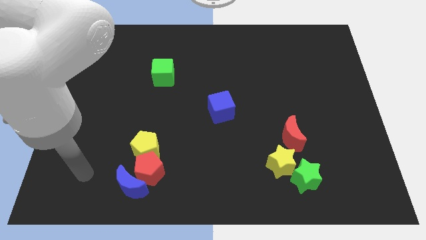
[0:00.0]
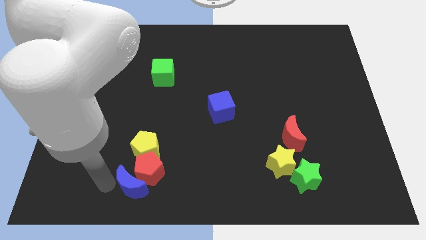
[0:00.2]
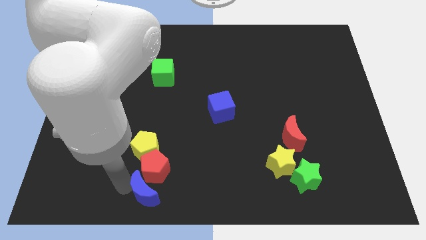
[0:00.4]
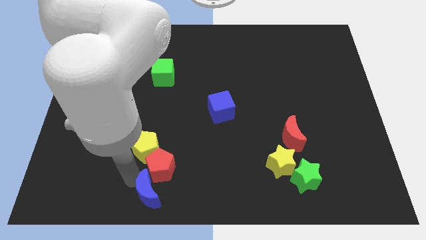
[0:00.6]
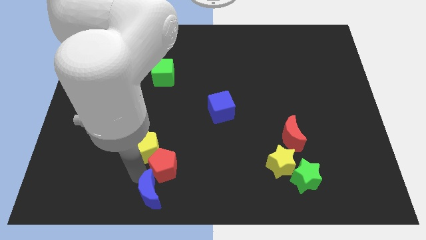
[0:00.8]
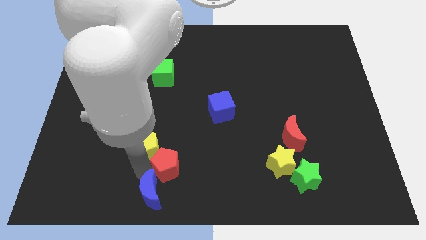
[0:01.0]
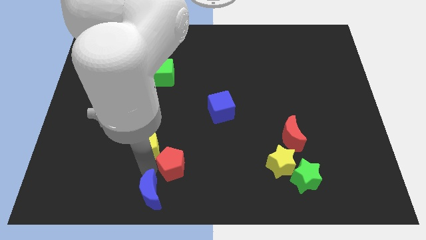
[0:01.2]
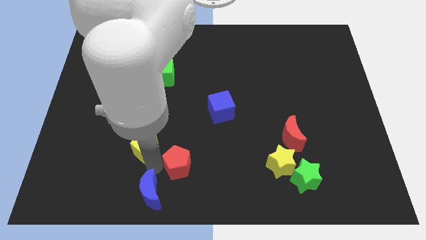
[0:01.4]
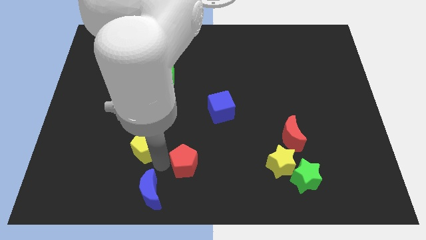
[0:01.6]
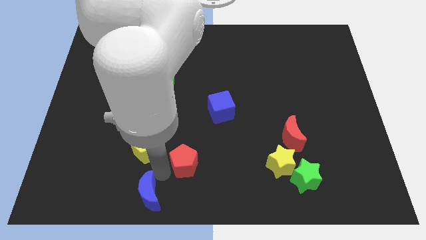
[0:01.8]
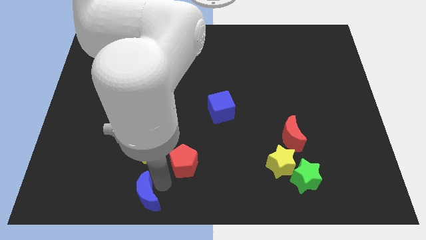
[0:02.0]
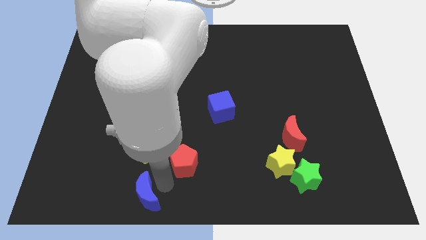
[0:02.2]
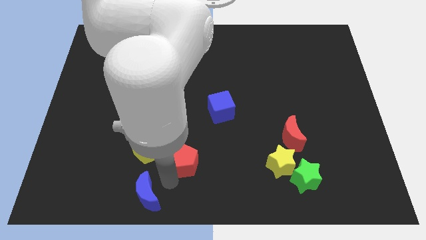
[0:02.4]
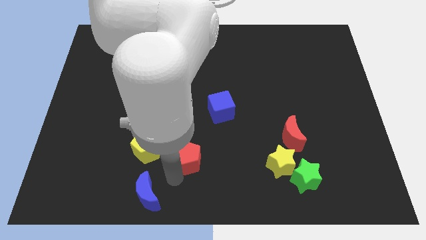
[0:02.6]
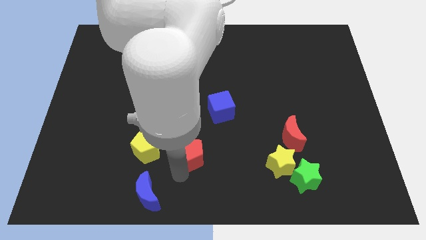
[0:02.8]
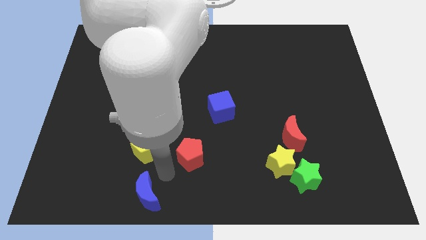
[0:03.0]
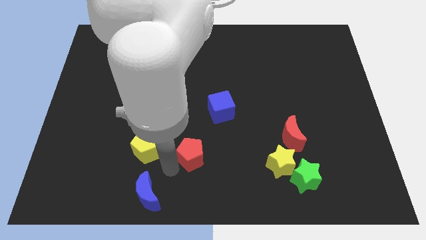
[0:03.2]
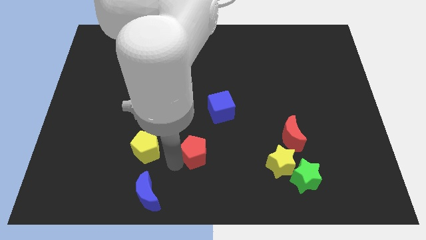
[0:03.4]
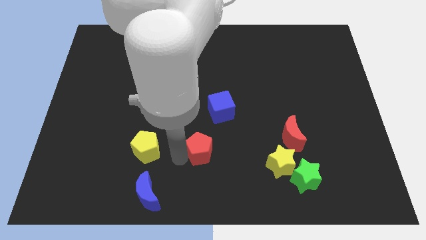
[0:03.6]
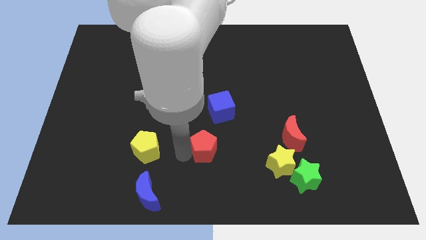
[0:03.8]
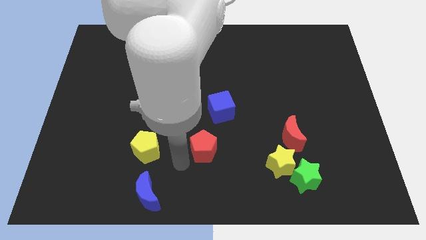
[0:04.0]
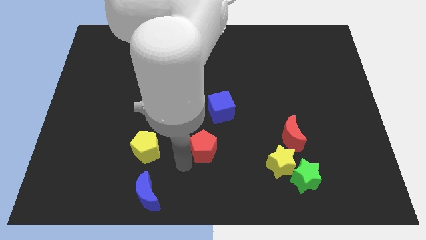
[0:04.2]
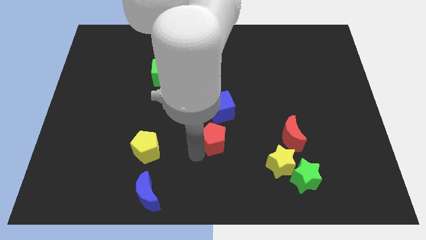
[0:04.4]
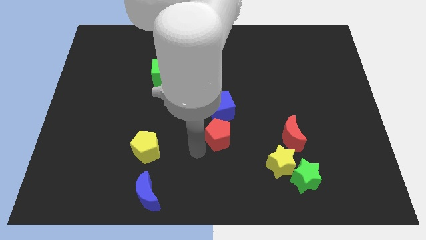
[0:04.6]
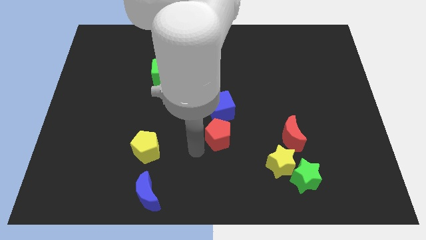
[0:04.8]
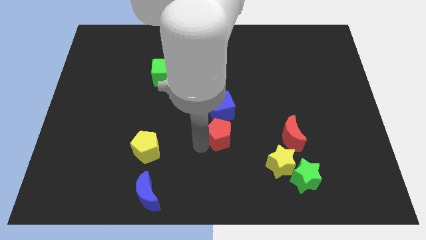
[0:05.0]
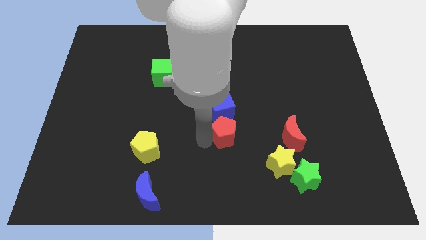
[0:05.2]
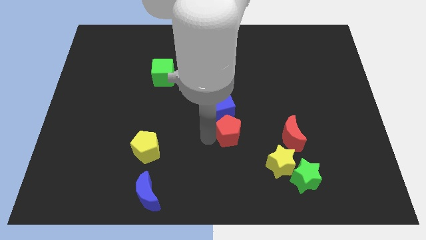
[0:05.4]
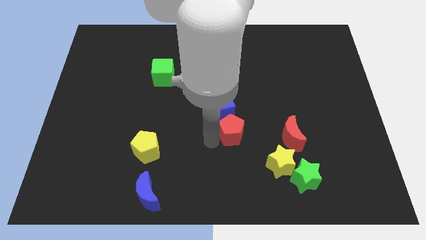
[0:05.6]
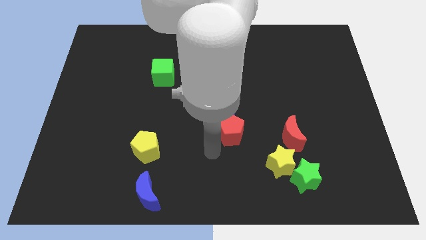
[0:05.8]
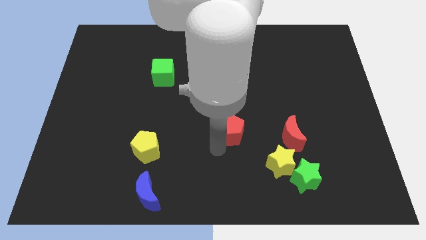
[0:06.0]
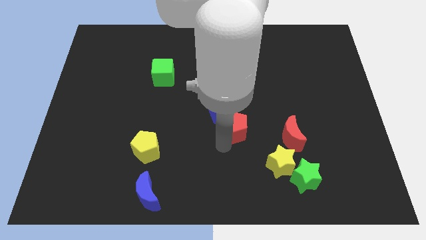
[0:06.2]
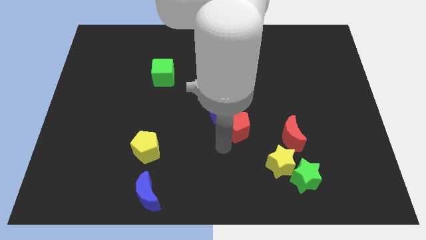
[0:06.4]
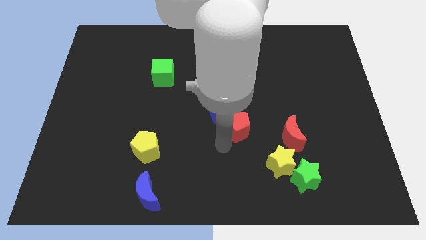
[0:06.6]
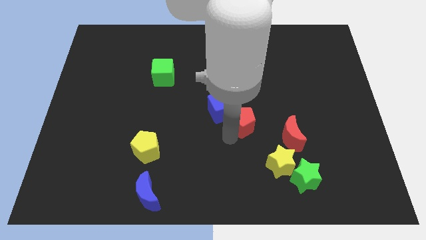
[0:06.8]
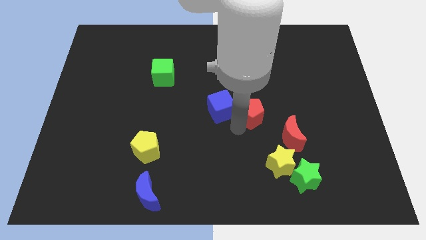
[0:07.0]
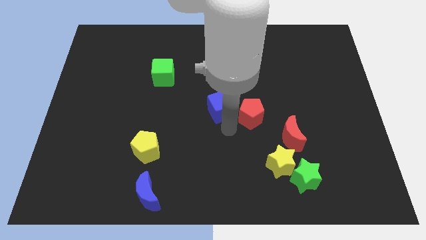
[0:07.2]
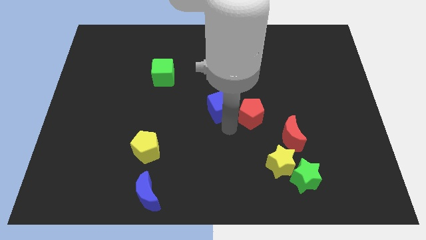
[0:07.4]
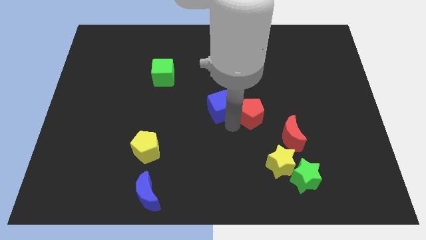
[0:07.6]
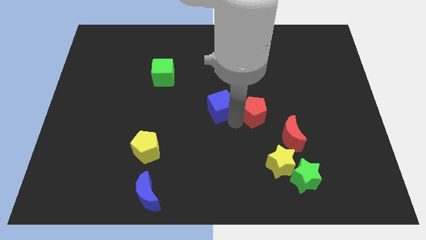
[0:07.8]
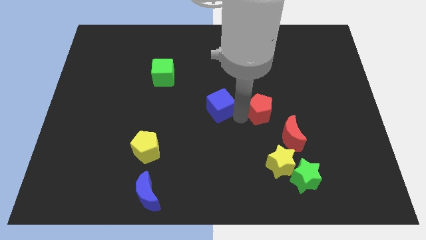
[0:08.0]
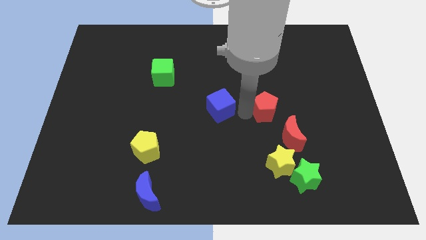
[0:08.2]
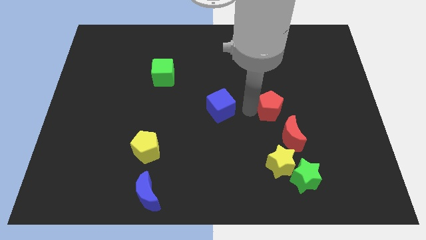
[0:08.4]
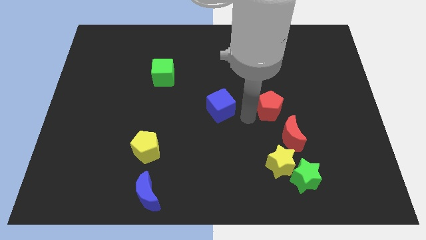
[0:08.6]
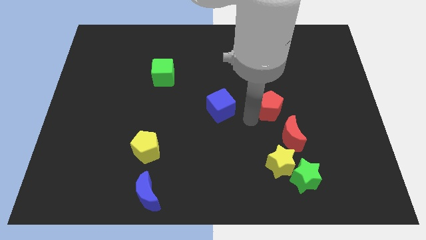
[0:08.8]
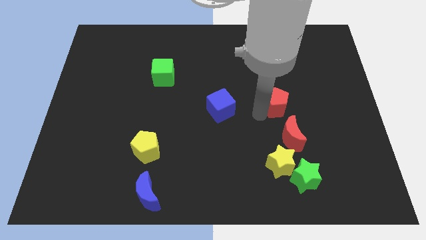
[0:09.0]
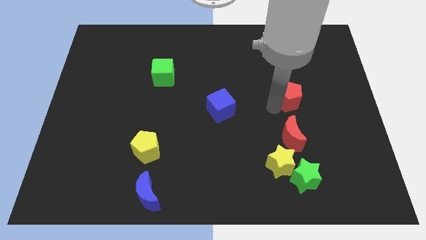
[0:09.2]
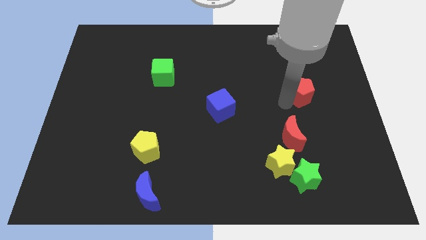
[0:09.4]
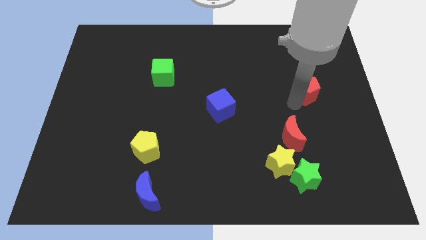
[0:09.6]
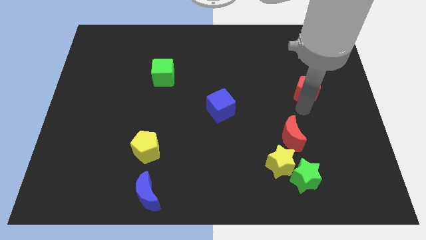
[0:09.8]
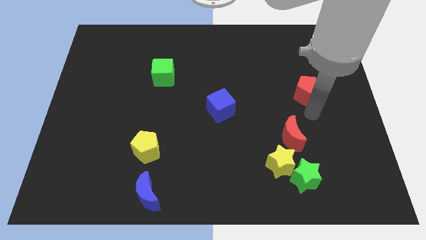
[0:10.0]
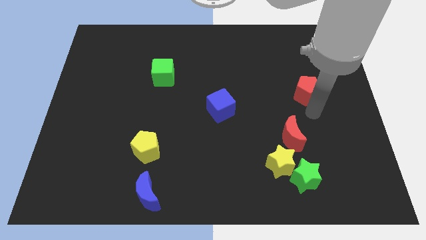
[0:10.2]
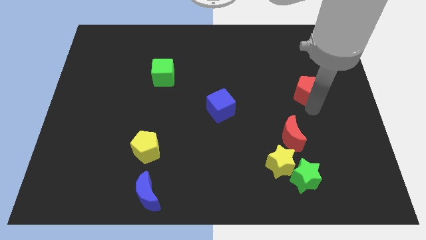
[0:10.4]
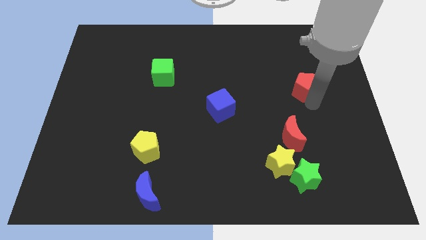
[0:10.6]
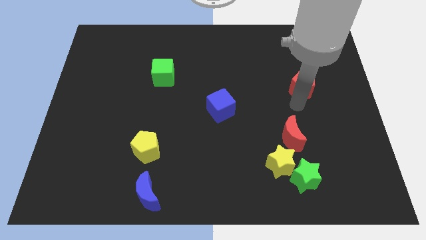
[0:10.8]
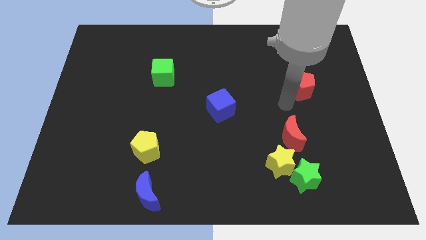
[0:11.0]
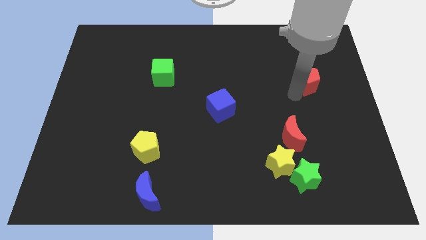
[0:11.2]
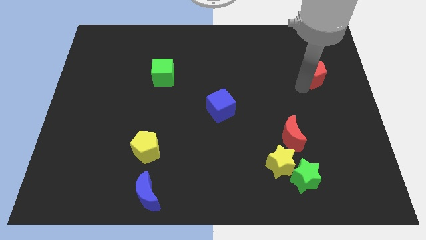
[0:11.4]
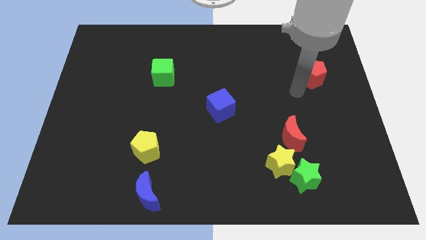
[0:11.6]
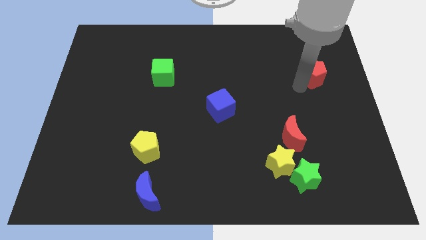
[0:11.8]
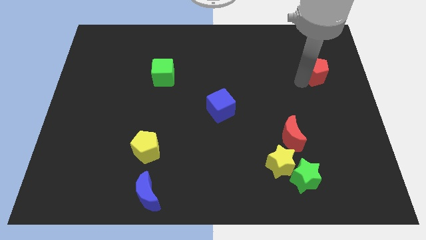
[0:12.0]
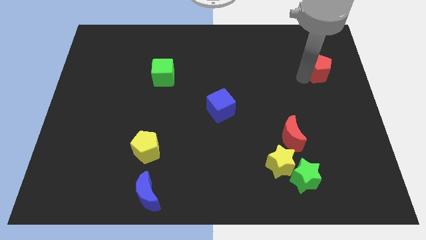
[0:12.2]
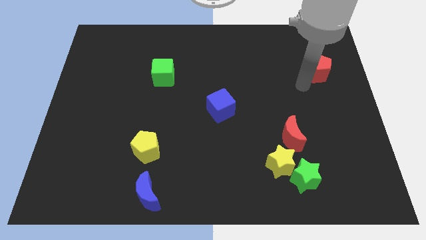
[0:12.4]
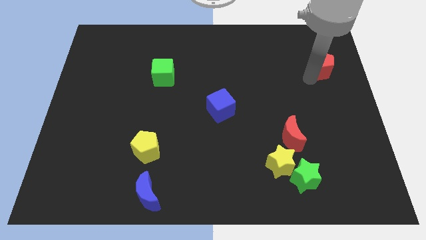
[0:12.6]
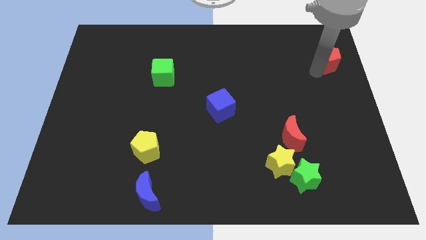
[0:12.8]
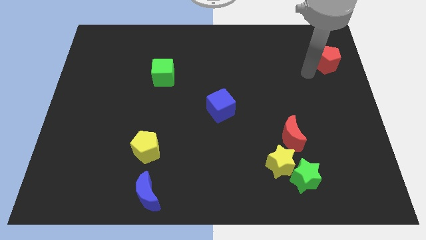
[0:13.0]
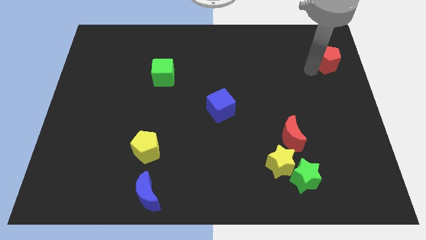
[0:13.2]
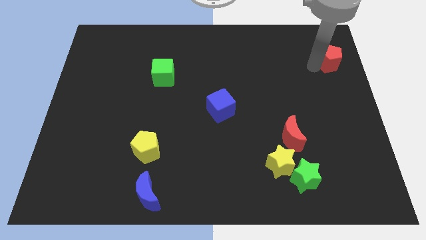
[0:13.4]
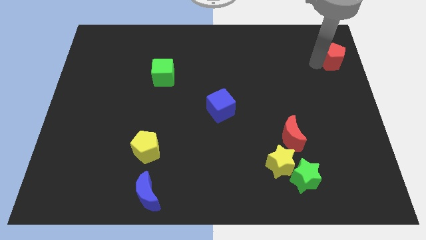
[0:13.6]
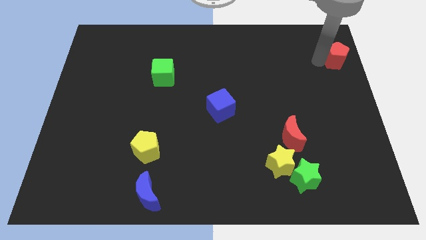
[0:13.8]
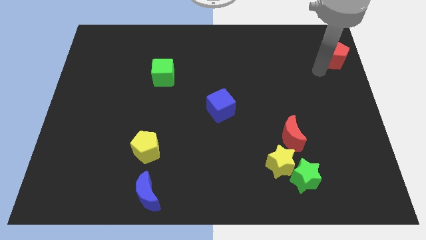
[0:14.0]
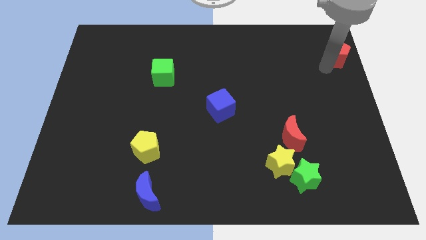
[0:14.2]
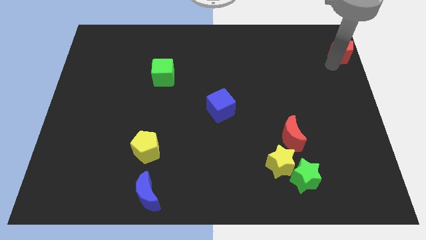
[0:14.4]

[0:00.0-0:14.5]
push the red pentagon to the top right corner
